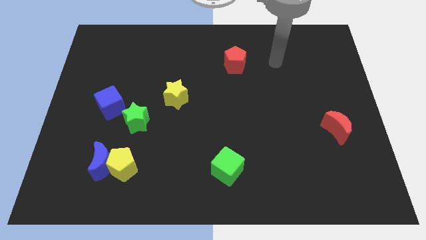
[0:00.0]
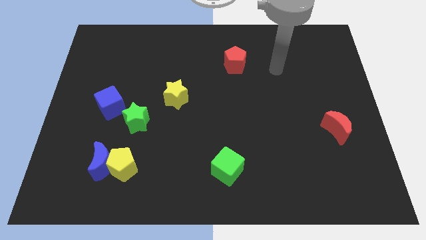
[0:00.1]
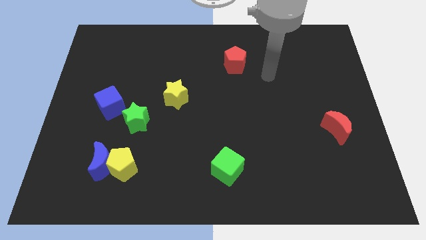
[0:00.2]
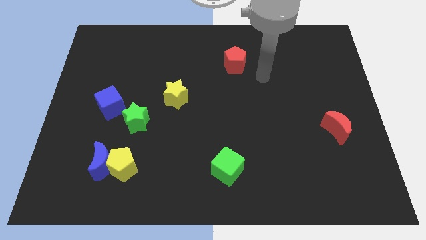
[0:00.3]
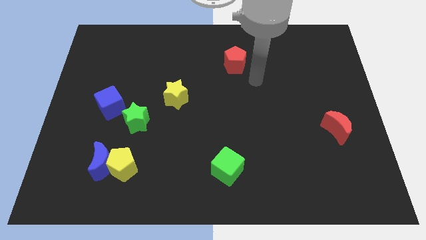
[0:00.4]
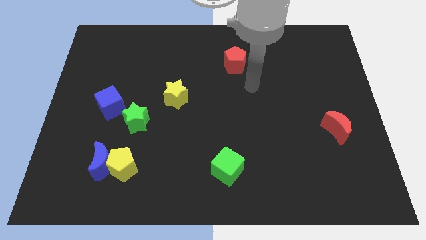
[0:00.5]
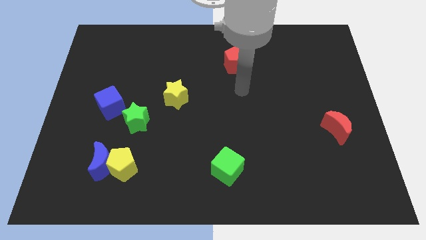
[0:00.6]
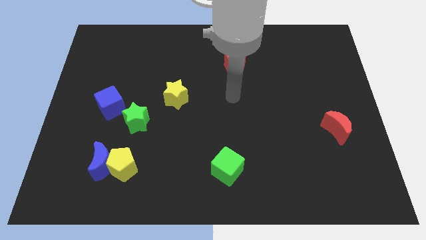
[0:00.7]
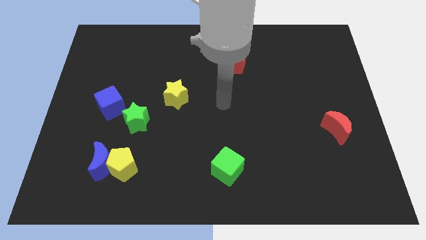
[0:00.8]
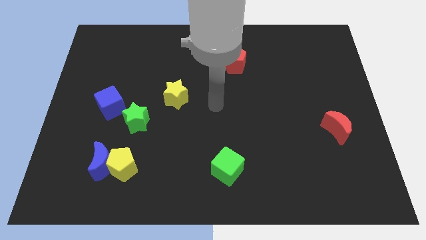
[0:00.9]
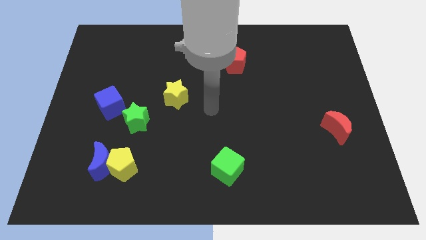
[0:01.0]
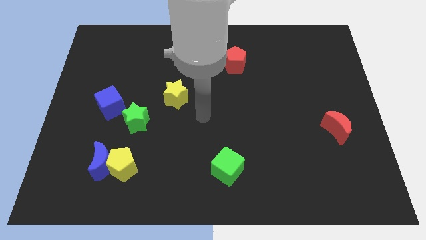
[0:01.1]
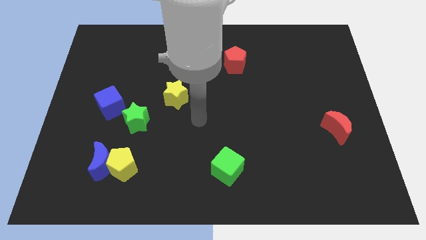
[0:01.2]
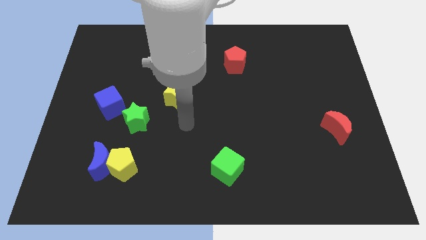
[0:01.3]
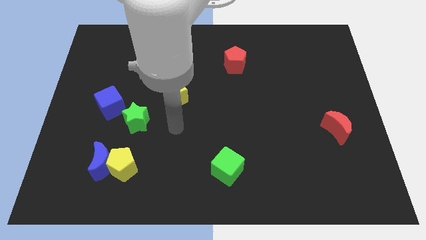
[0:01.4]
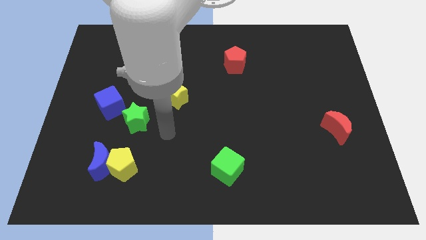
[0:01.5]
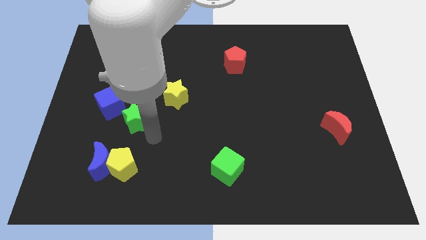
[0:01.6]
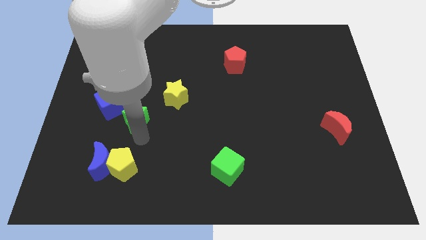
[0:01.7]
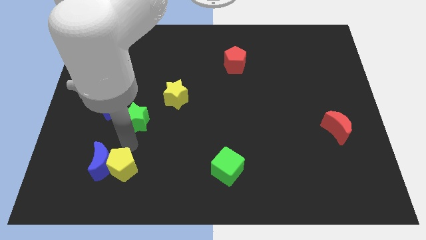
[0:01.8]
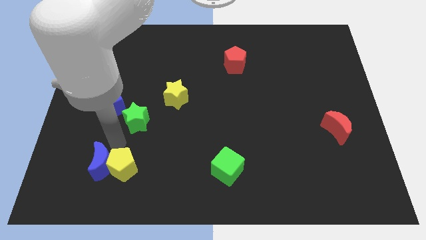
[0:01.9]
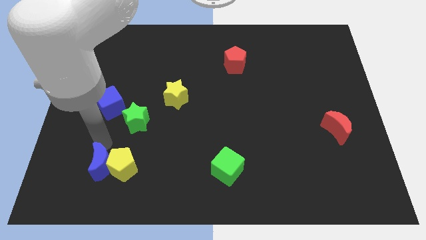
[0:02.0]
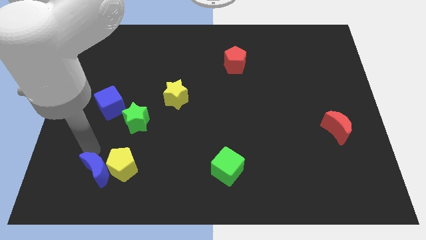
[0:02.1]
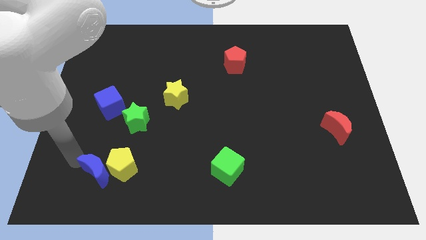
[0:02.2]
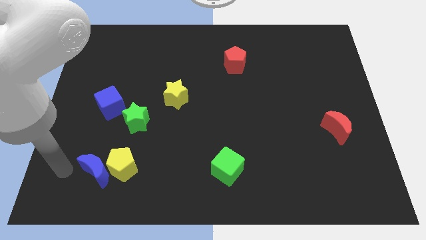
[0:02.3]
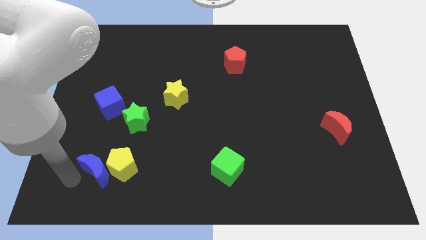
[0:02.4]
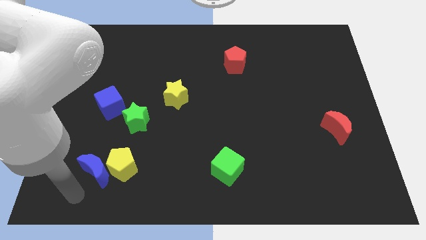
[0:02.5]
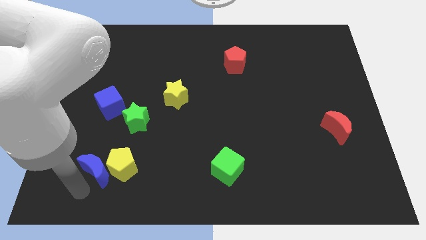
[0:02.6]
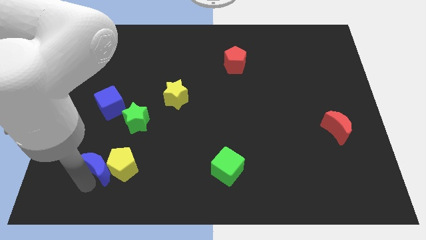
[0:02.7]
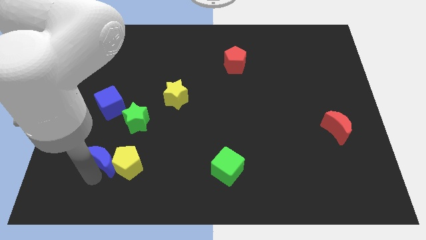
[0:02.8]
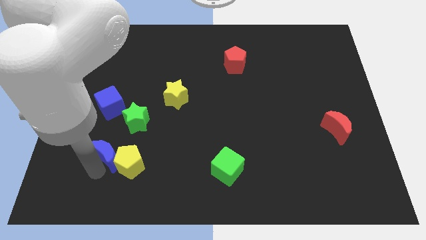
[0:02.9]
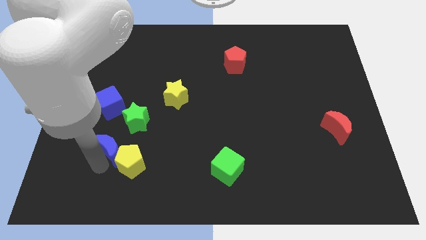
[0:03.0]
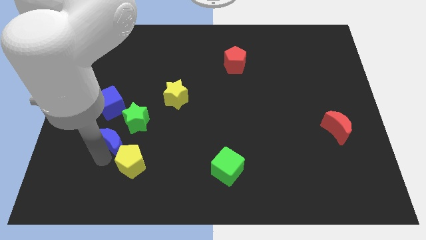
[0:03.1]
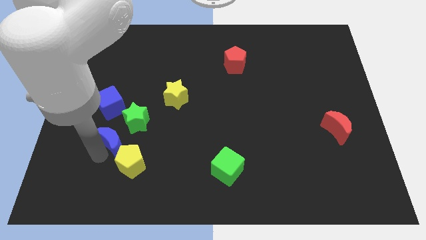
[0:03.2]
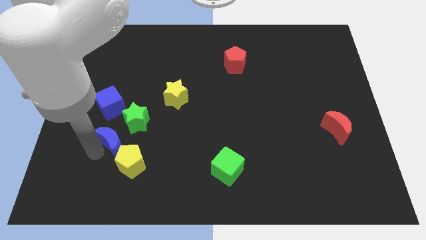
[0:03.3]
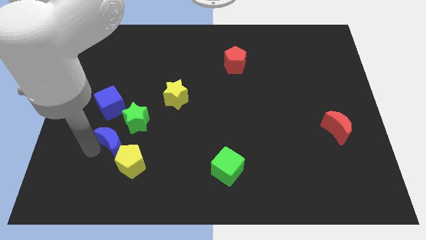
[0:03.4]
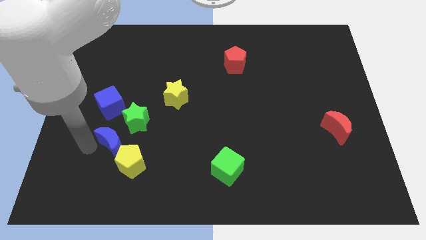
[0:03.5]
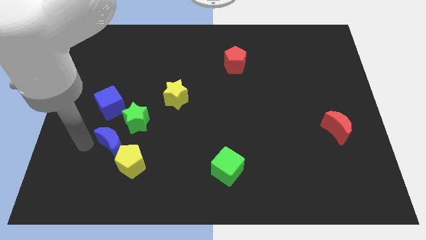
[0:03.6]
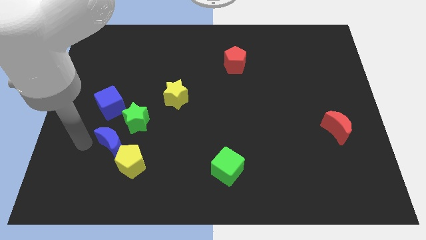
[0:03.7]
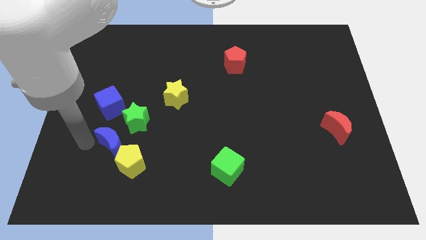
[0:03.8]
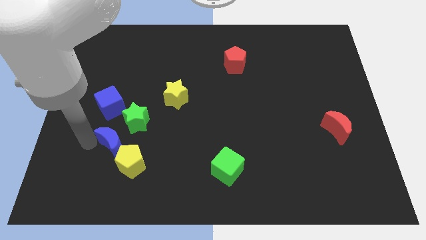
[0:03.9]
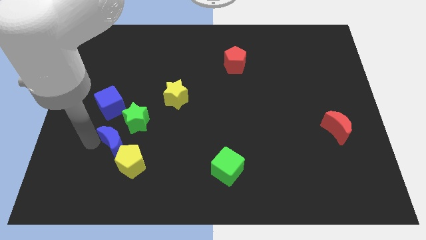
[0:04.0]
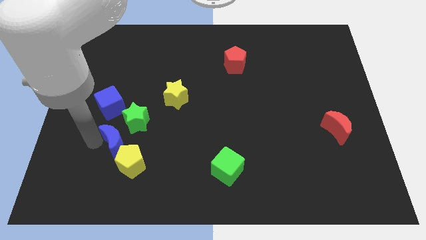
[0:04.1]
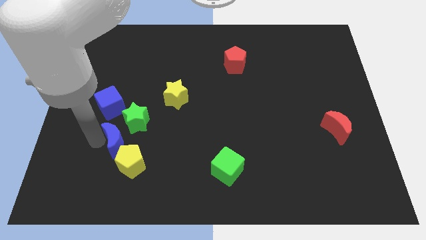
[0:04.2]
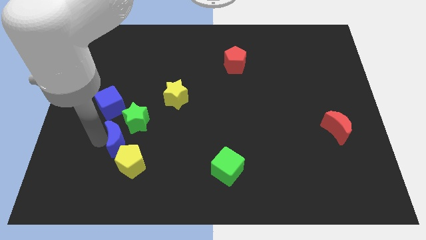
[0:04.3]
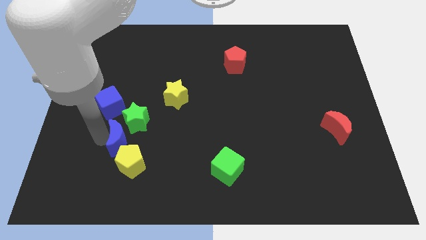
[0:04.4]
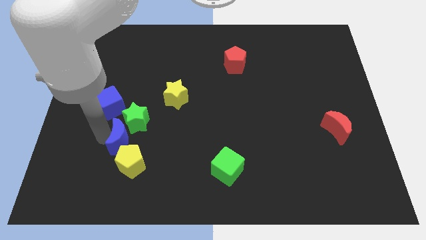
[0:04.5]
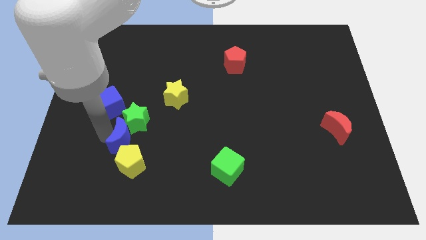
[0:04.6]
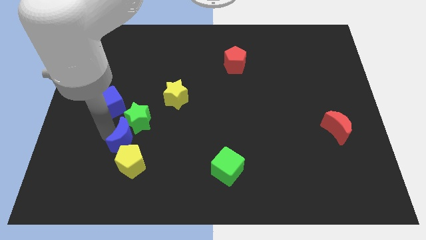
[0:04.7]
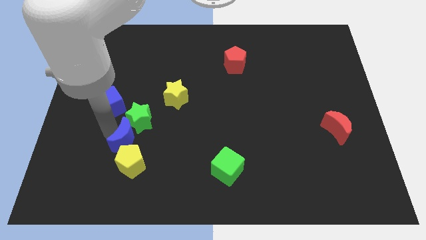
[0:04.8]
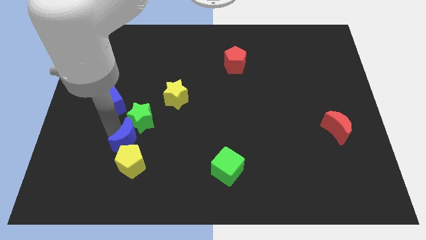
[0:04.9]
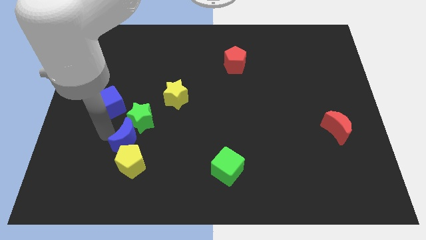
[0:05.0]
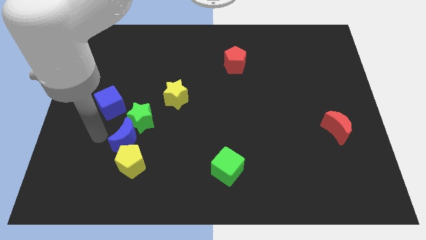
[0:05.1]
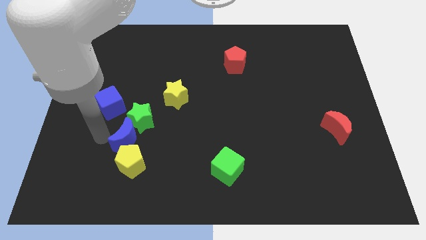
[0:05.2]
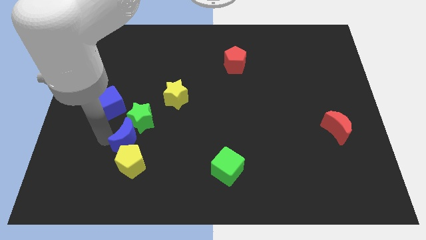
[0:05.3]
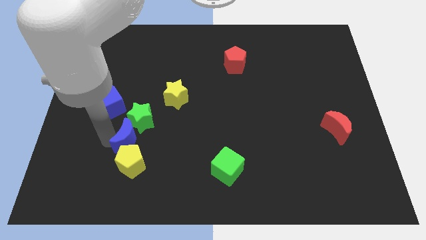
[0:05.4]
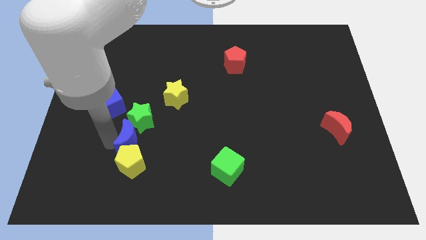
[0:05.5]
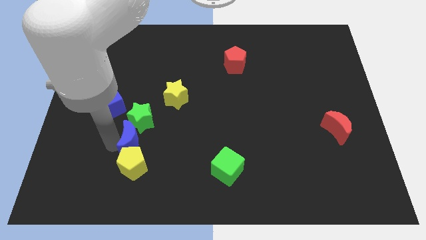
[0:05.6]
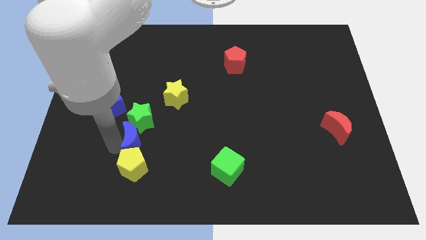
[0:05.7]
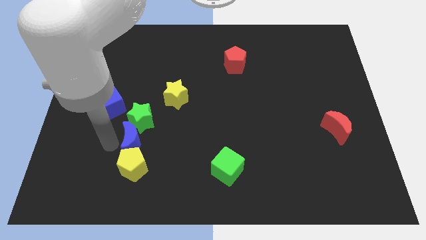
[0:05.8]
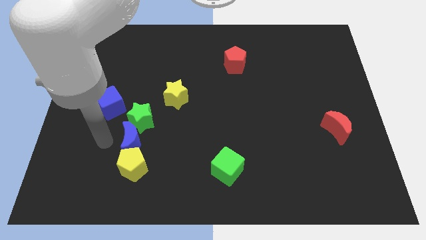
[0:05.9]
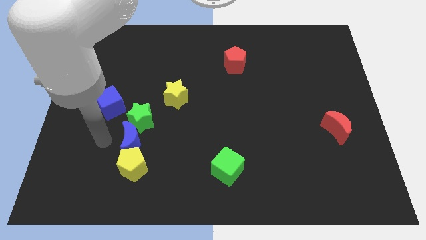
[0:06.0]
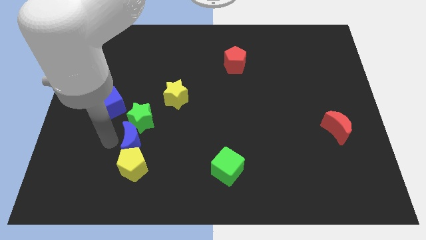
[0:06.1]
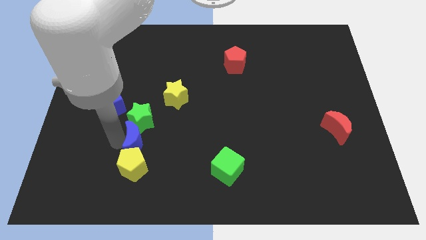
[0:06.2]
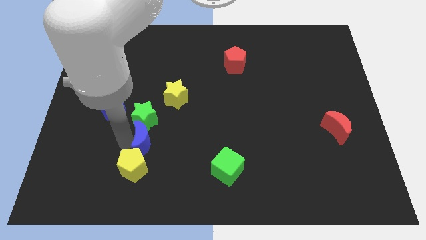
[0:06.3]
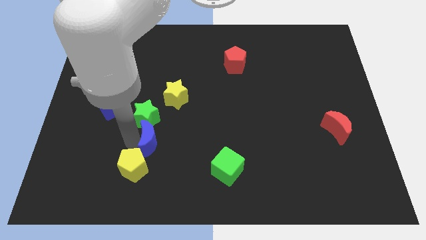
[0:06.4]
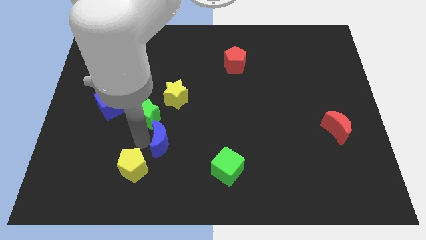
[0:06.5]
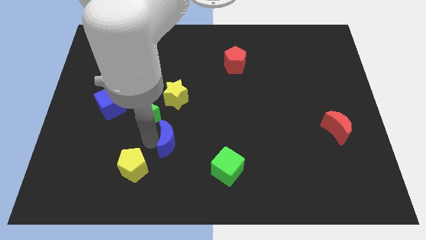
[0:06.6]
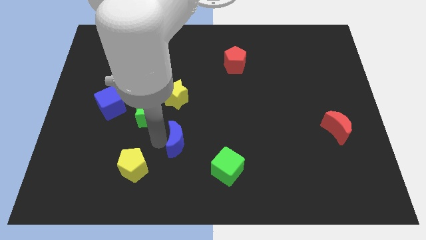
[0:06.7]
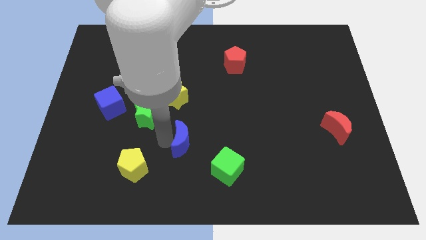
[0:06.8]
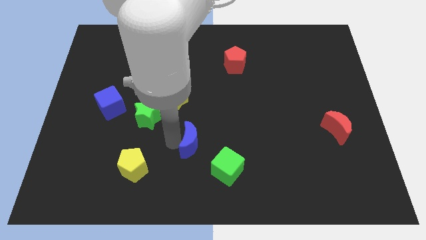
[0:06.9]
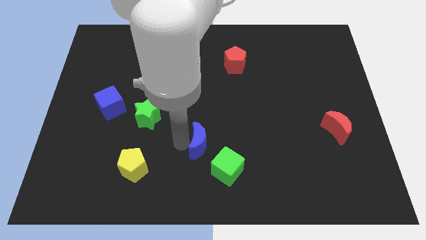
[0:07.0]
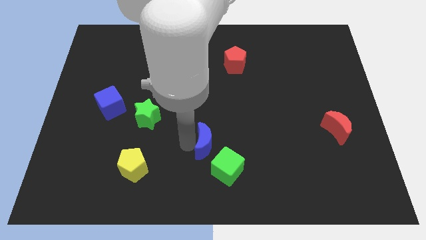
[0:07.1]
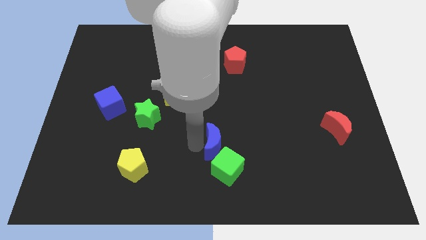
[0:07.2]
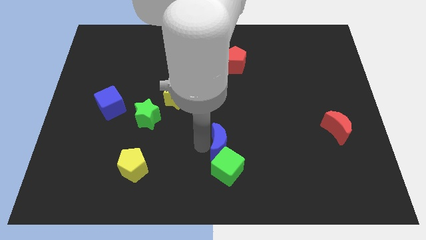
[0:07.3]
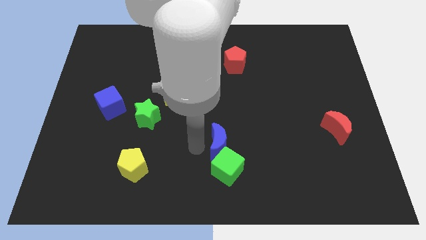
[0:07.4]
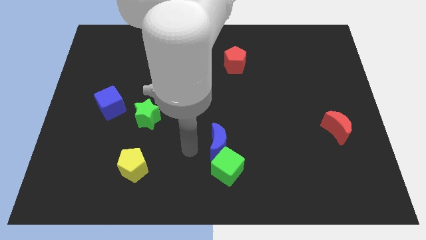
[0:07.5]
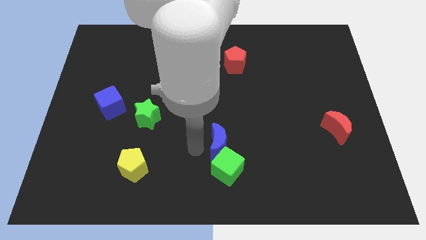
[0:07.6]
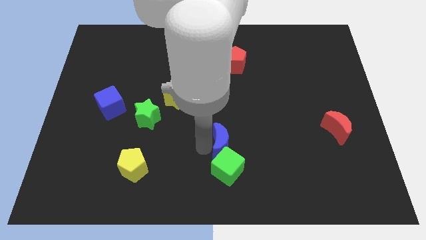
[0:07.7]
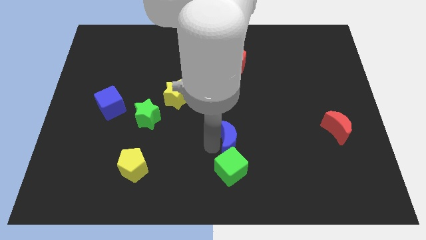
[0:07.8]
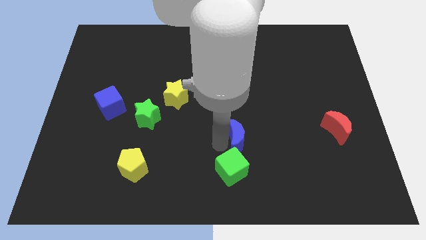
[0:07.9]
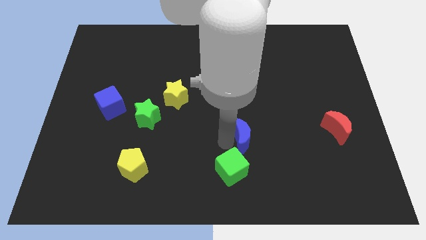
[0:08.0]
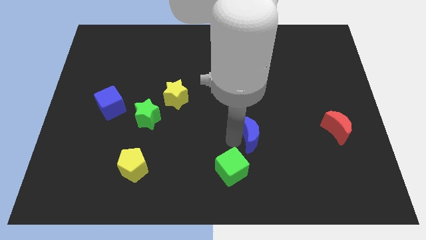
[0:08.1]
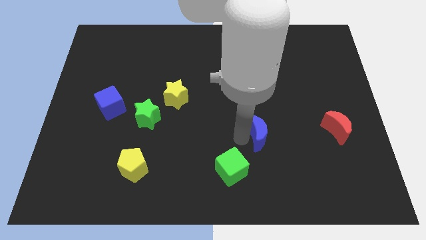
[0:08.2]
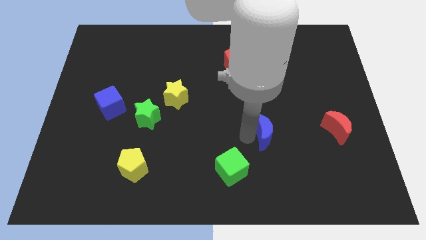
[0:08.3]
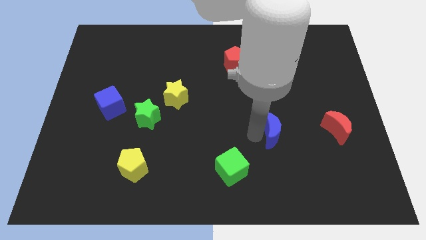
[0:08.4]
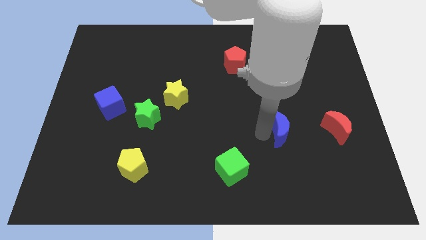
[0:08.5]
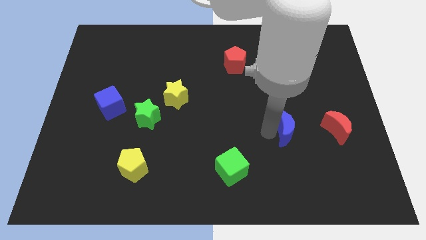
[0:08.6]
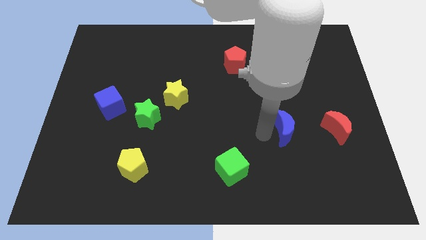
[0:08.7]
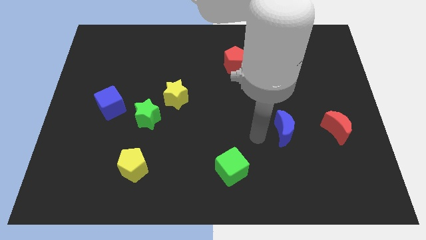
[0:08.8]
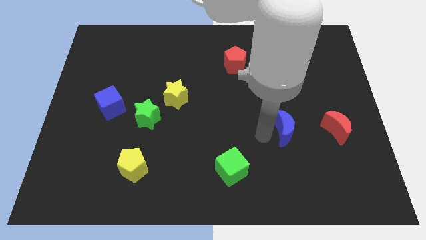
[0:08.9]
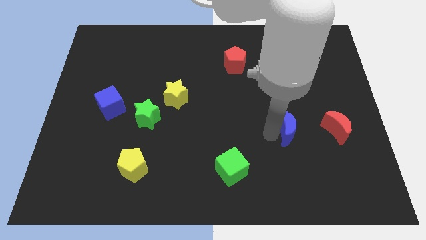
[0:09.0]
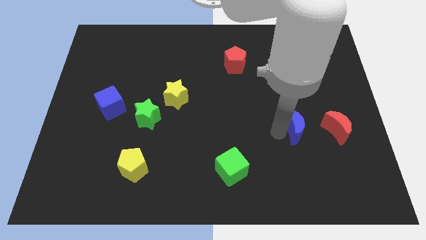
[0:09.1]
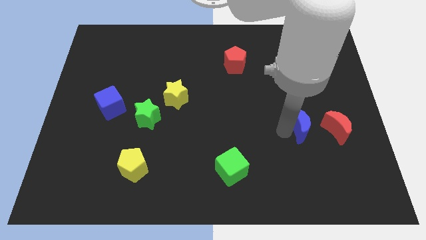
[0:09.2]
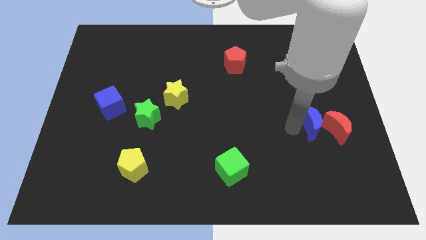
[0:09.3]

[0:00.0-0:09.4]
slide the blue moon close to the red moon
